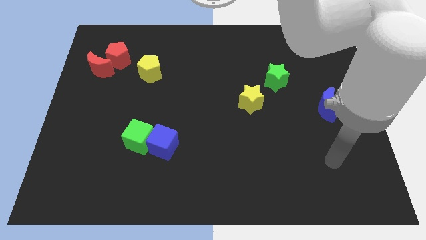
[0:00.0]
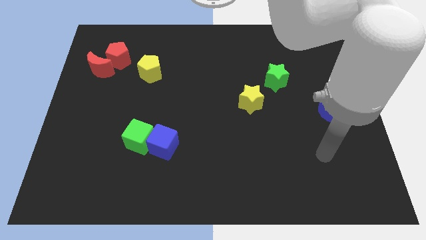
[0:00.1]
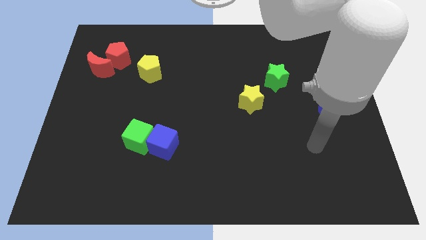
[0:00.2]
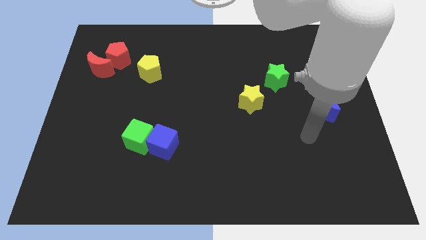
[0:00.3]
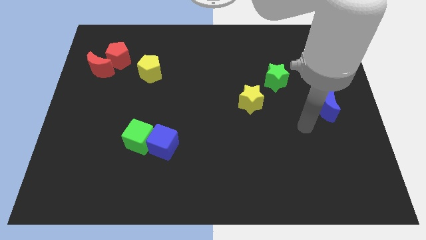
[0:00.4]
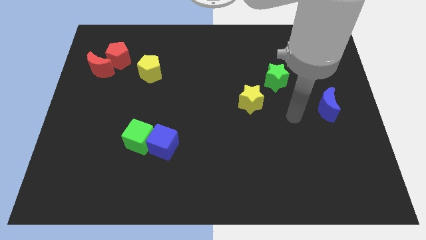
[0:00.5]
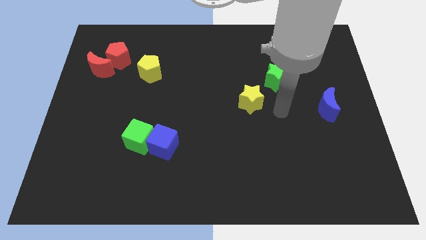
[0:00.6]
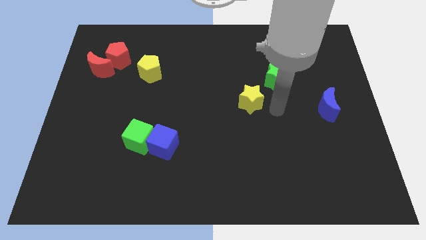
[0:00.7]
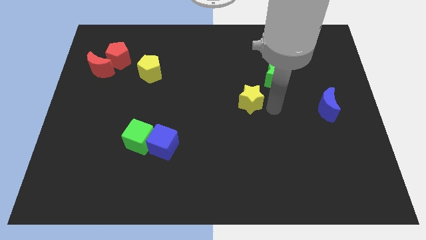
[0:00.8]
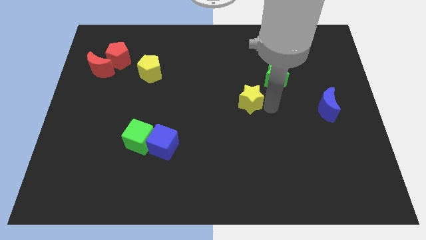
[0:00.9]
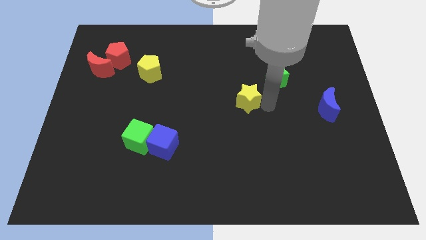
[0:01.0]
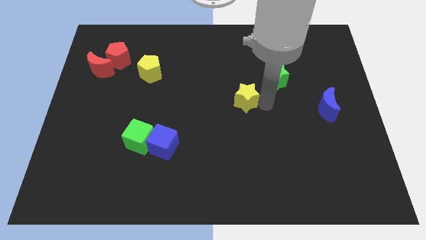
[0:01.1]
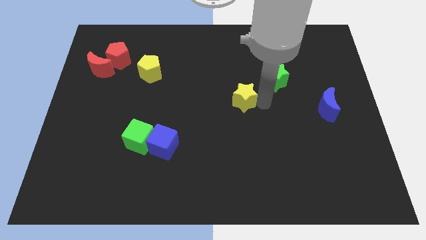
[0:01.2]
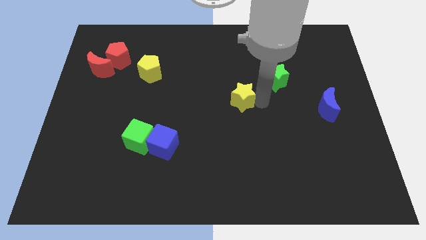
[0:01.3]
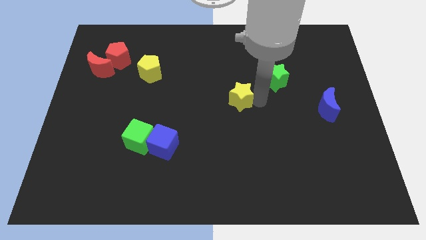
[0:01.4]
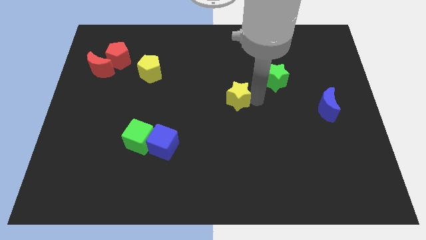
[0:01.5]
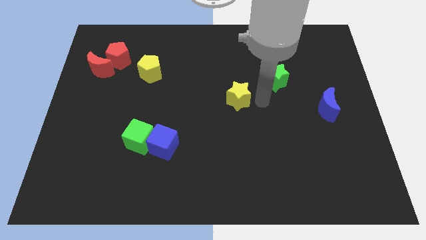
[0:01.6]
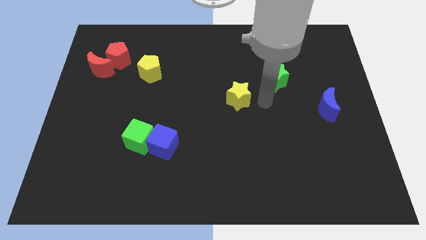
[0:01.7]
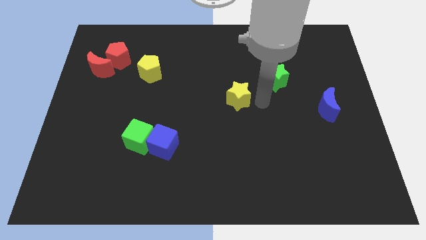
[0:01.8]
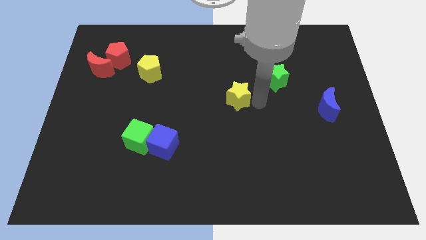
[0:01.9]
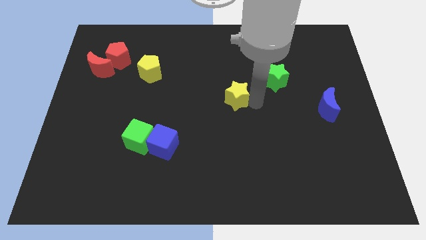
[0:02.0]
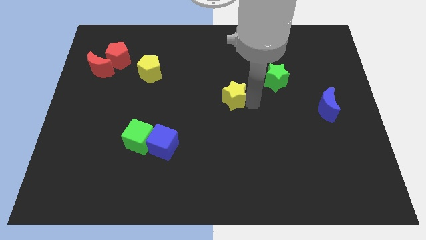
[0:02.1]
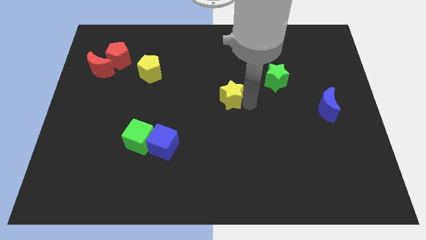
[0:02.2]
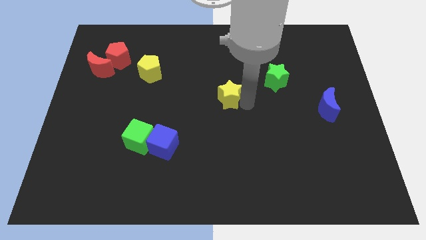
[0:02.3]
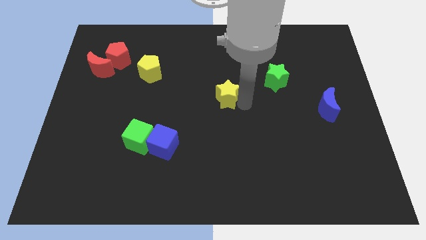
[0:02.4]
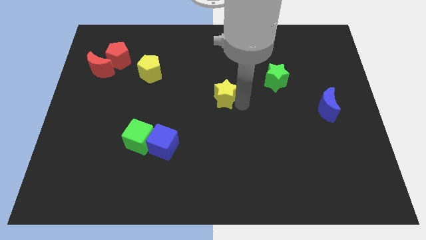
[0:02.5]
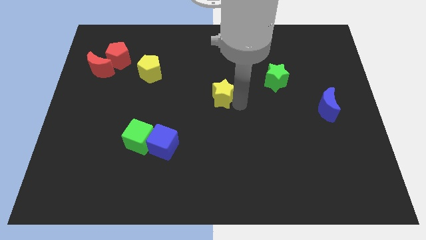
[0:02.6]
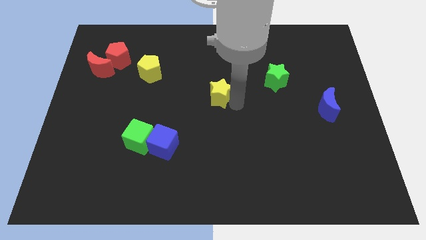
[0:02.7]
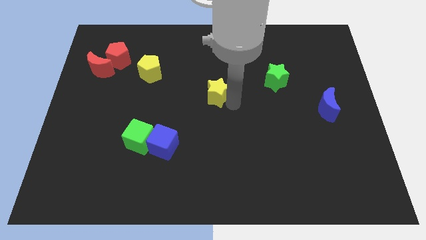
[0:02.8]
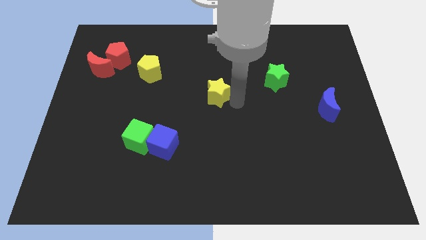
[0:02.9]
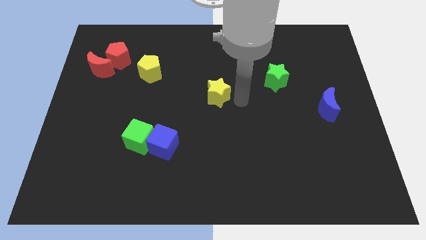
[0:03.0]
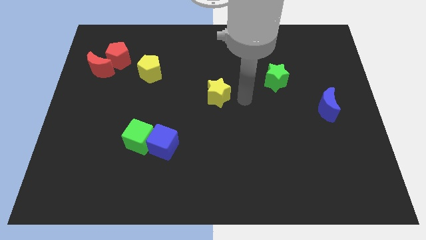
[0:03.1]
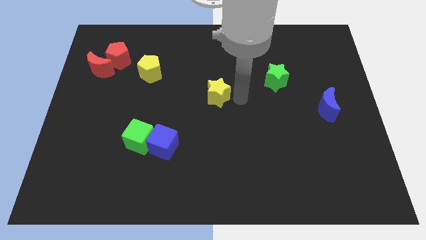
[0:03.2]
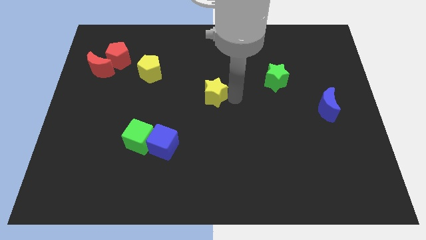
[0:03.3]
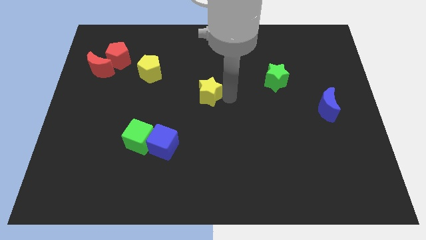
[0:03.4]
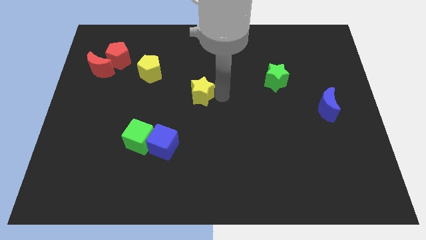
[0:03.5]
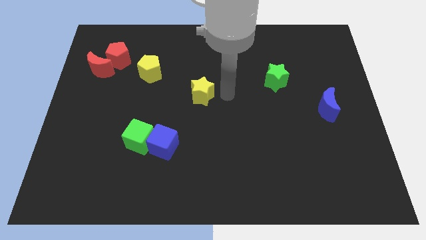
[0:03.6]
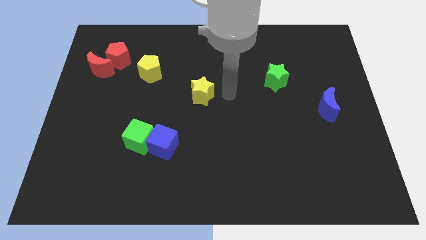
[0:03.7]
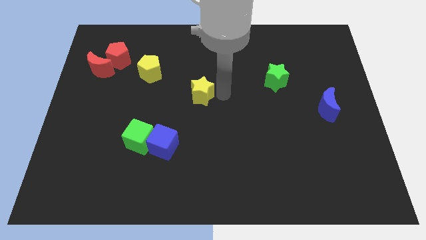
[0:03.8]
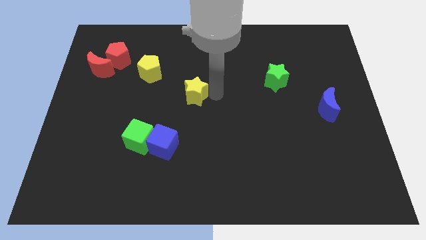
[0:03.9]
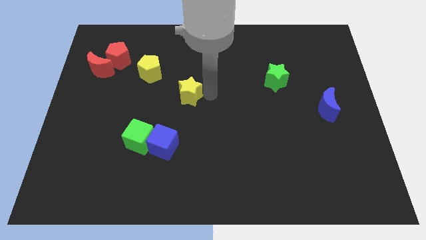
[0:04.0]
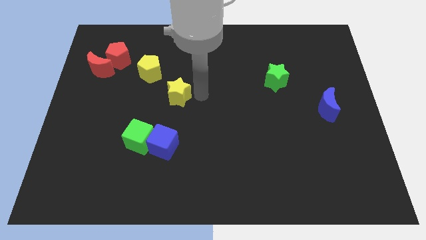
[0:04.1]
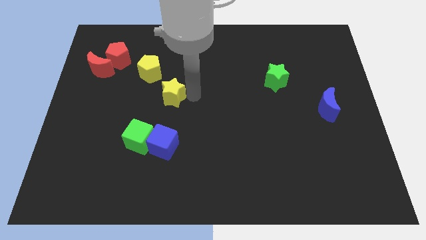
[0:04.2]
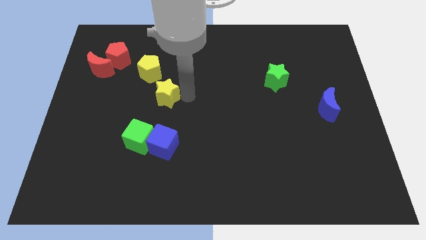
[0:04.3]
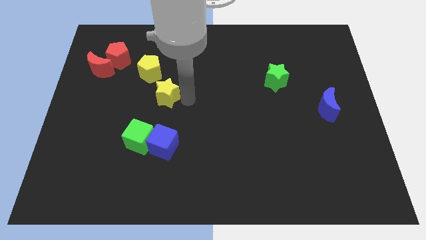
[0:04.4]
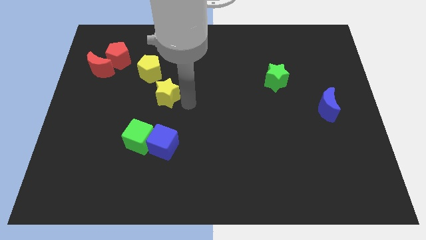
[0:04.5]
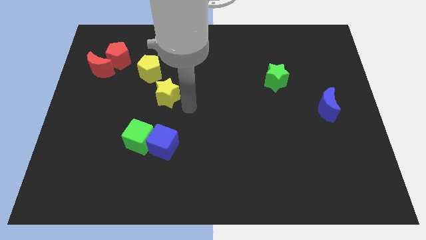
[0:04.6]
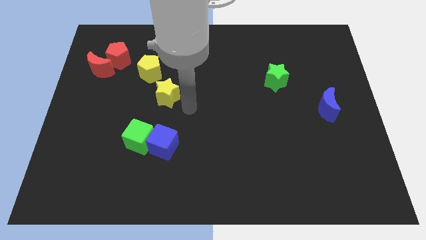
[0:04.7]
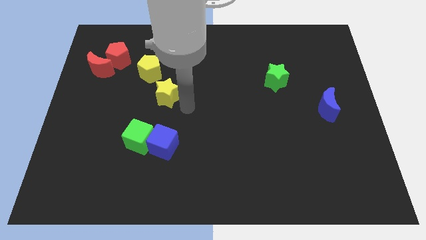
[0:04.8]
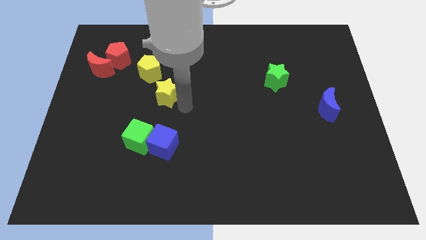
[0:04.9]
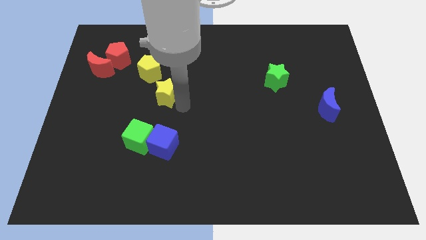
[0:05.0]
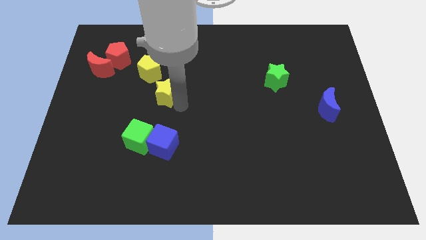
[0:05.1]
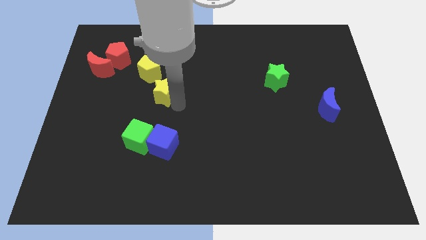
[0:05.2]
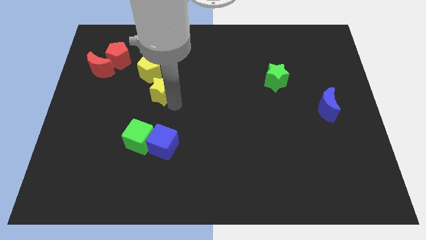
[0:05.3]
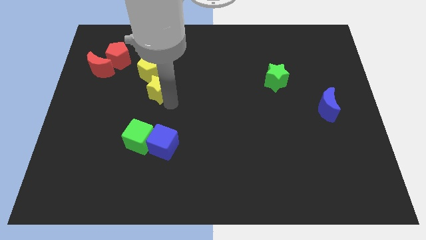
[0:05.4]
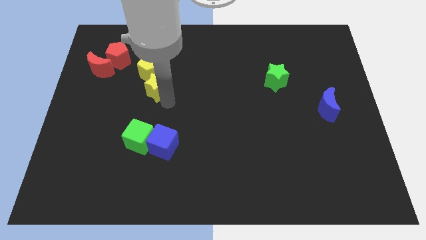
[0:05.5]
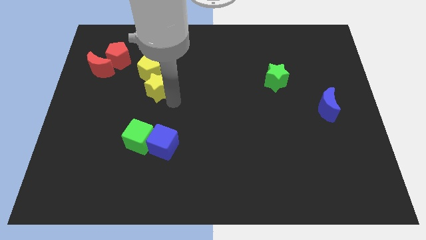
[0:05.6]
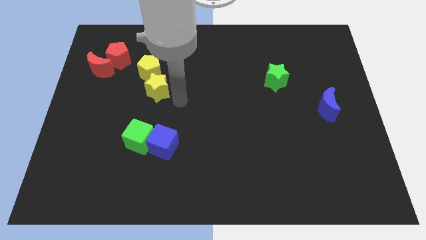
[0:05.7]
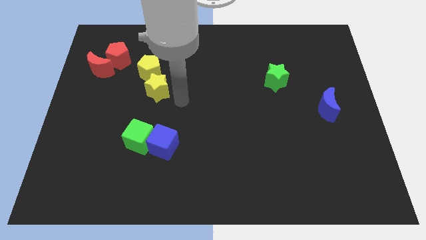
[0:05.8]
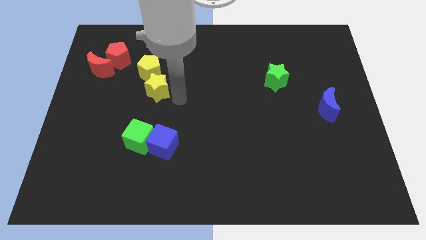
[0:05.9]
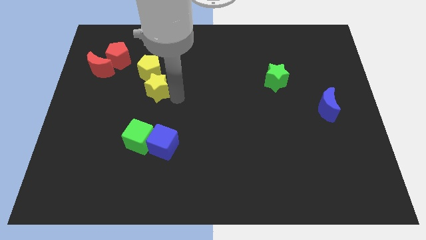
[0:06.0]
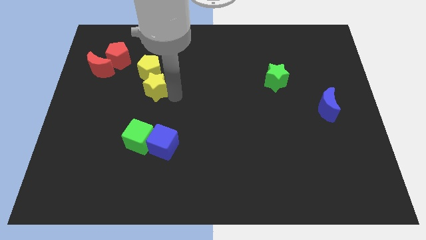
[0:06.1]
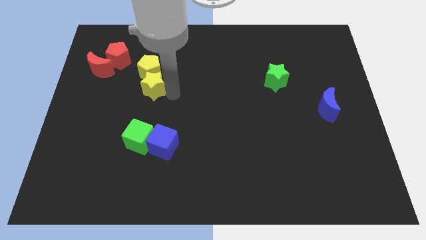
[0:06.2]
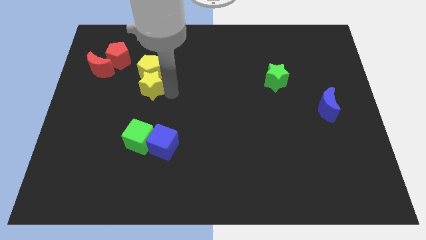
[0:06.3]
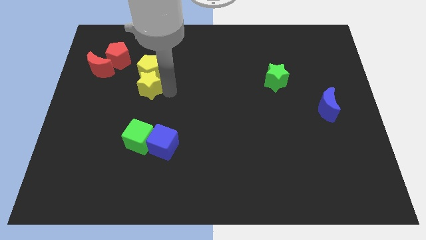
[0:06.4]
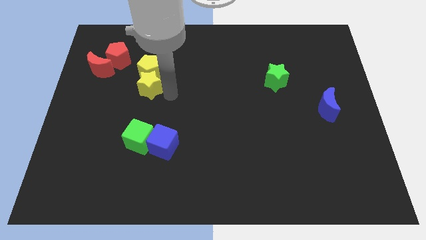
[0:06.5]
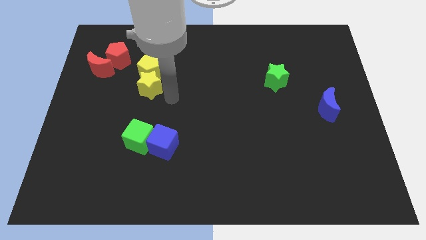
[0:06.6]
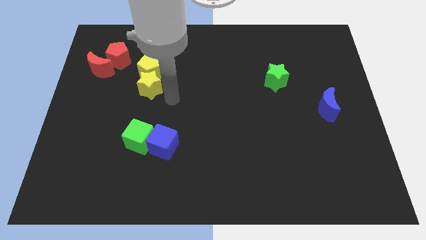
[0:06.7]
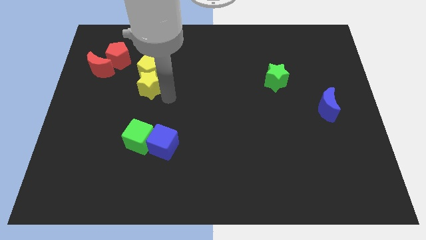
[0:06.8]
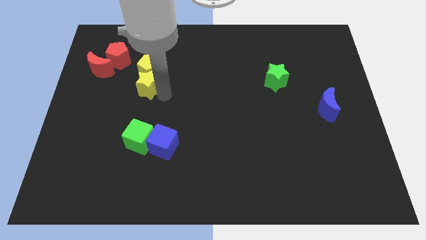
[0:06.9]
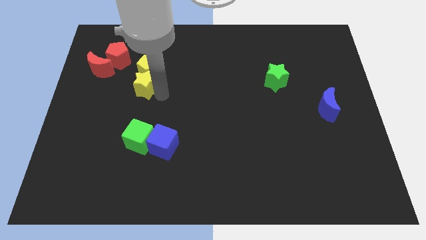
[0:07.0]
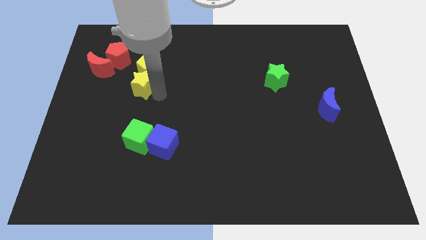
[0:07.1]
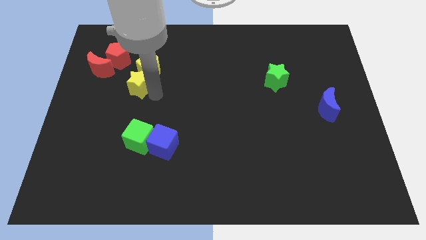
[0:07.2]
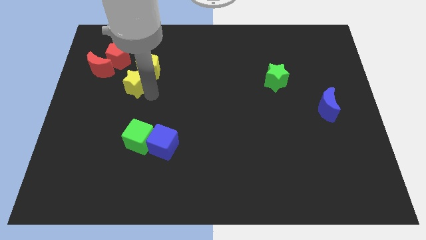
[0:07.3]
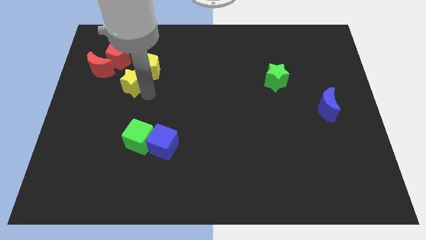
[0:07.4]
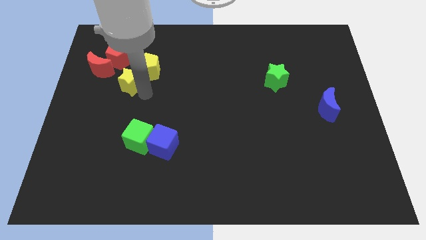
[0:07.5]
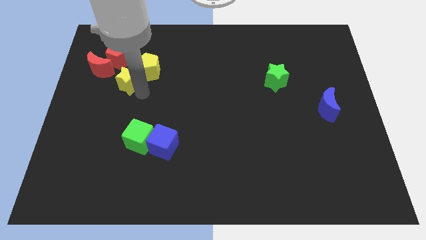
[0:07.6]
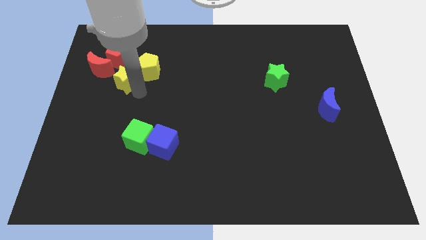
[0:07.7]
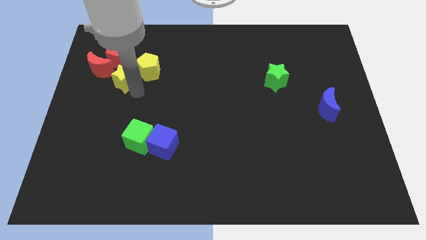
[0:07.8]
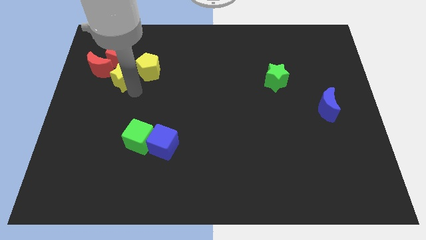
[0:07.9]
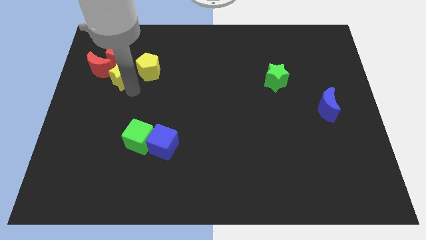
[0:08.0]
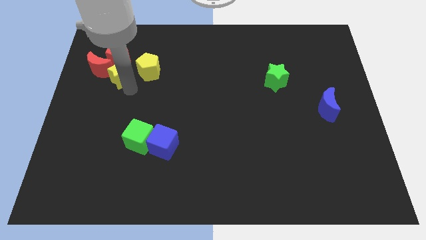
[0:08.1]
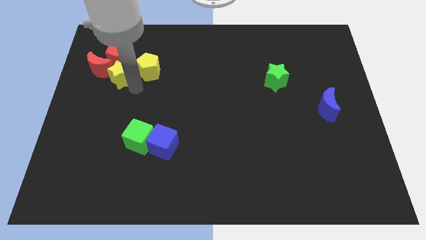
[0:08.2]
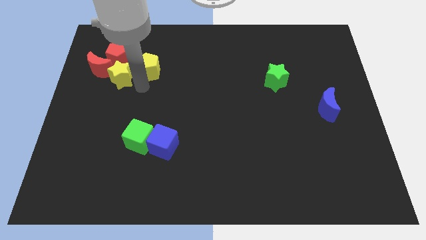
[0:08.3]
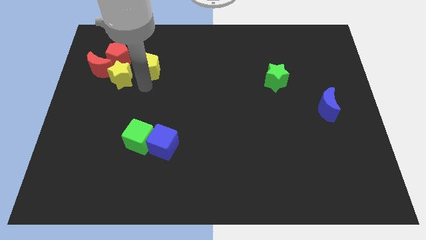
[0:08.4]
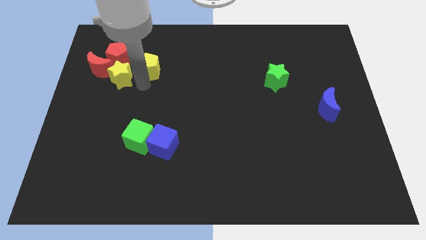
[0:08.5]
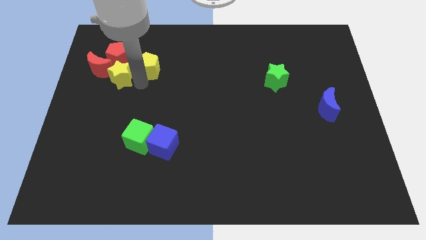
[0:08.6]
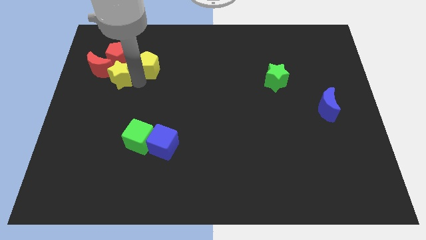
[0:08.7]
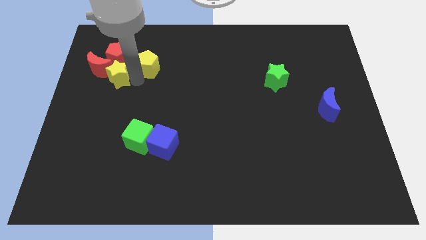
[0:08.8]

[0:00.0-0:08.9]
slide the yellow star next to the red moon

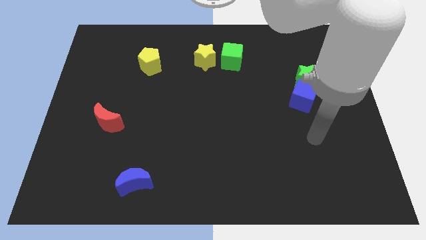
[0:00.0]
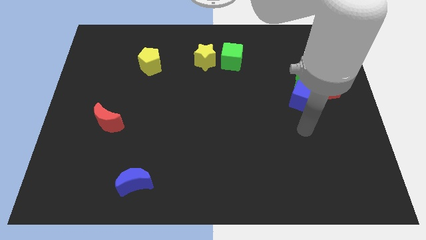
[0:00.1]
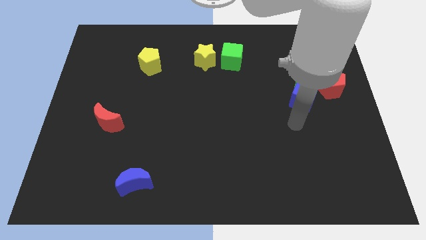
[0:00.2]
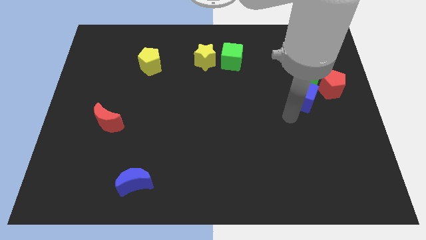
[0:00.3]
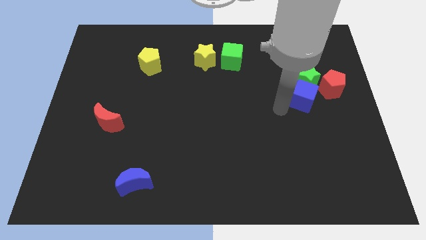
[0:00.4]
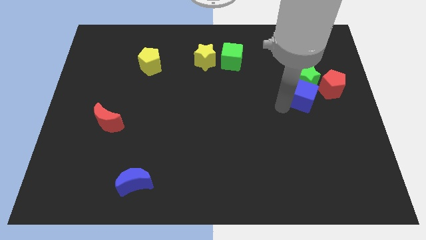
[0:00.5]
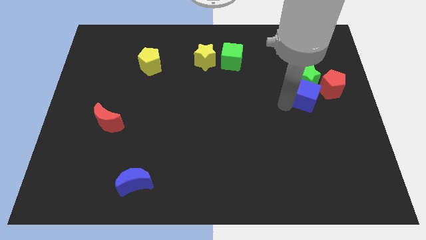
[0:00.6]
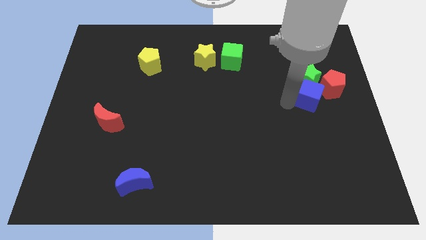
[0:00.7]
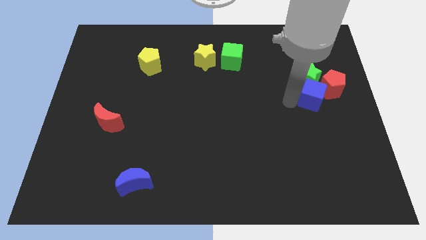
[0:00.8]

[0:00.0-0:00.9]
push the blue cube to the red pentagon
